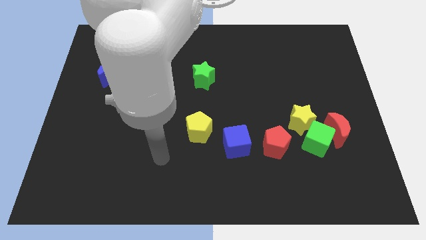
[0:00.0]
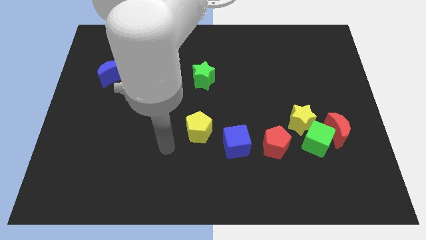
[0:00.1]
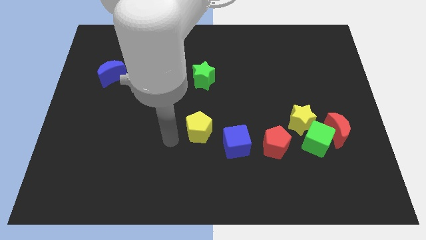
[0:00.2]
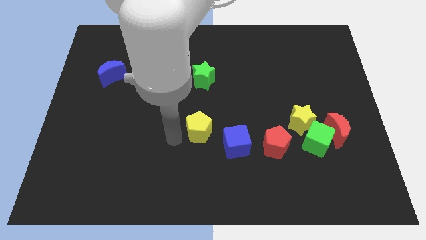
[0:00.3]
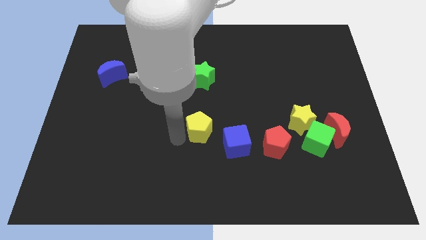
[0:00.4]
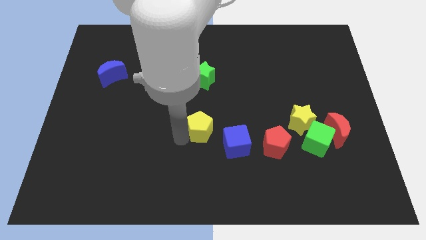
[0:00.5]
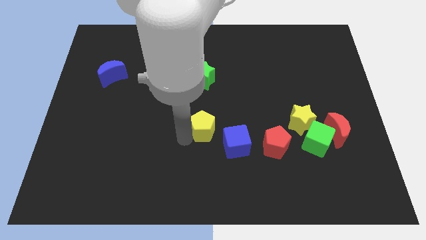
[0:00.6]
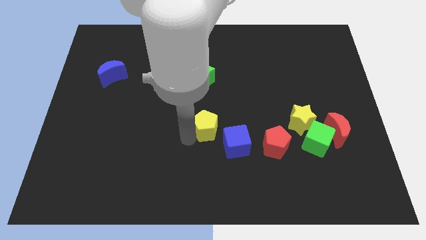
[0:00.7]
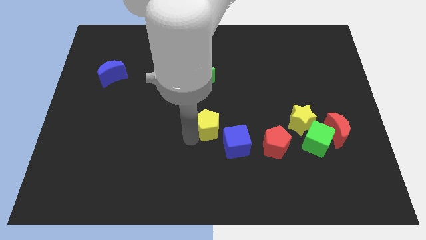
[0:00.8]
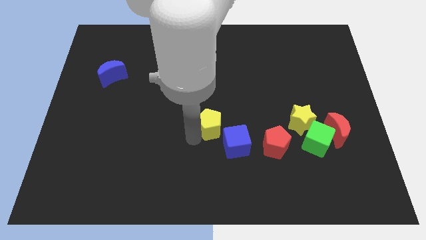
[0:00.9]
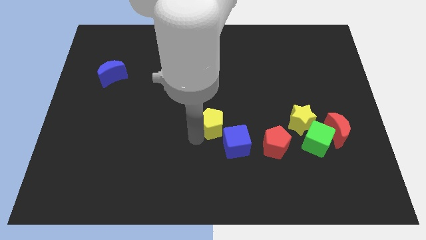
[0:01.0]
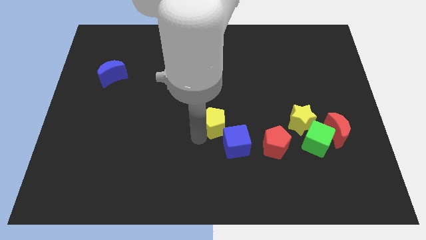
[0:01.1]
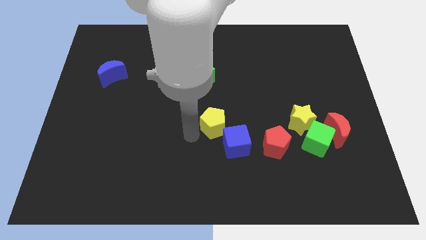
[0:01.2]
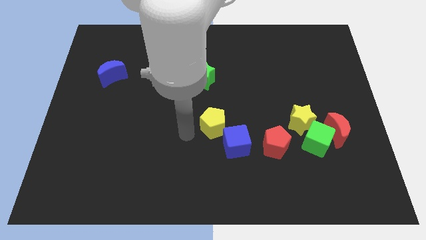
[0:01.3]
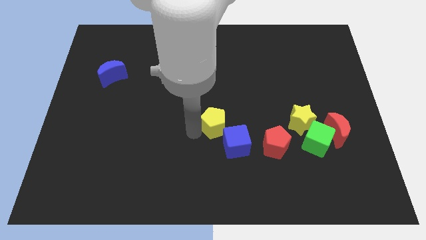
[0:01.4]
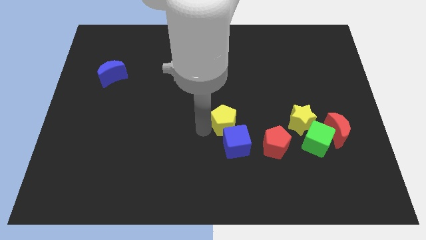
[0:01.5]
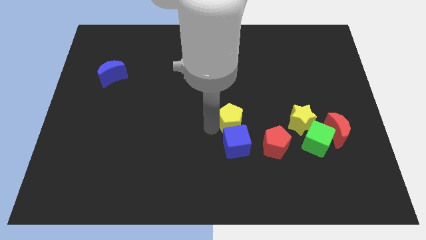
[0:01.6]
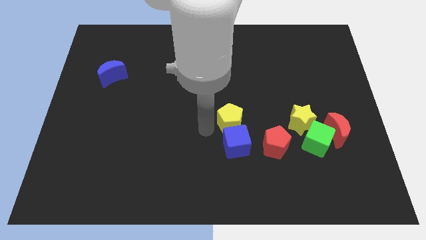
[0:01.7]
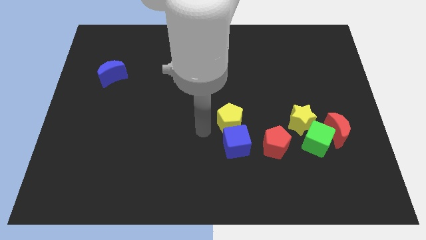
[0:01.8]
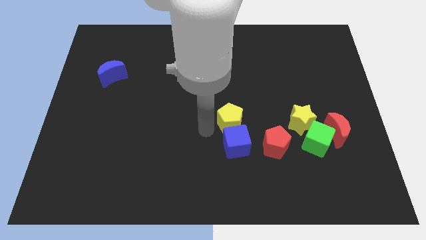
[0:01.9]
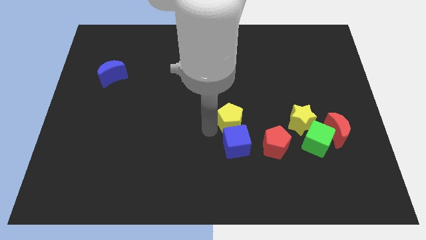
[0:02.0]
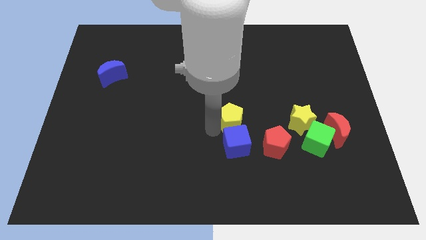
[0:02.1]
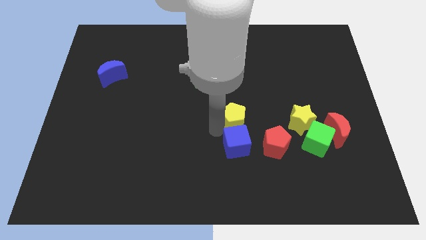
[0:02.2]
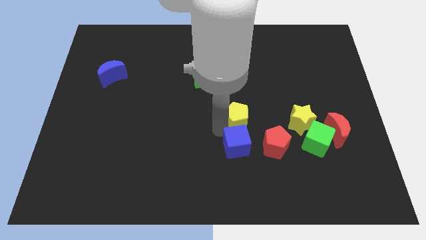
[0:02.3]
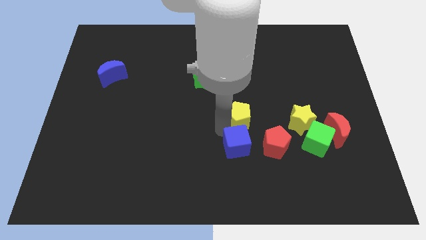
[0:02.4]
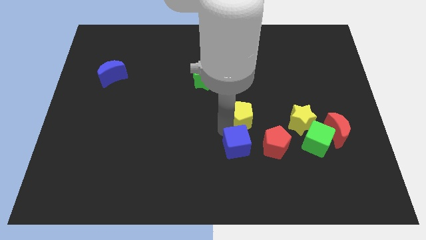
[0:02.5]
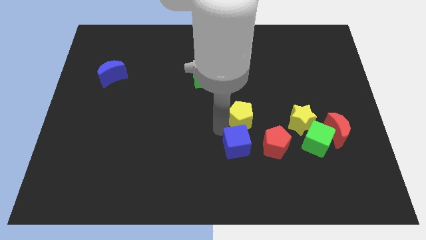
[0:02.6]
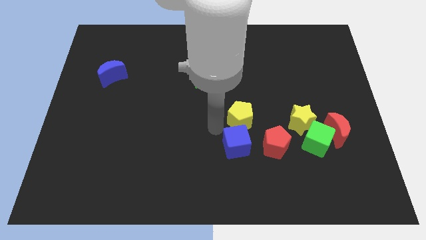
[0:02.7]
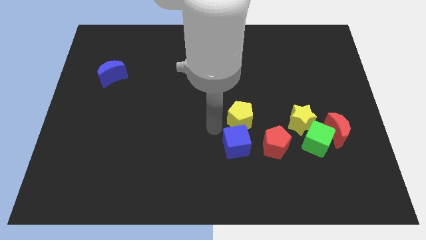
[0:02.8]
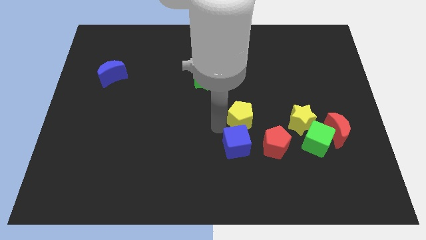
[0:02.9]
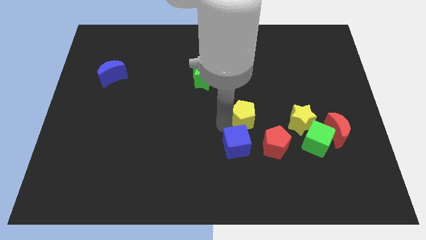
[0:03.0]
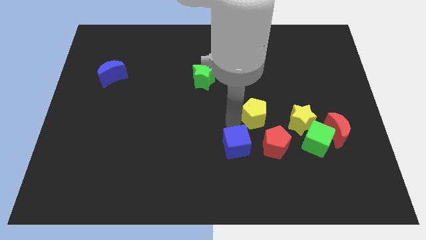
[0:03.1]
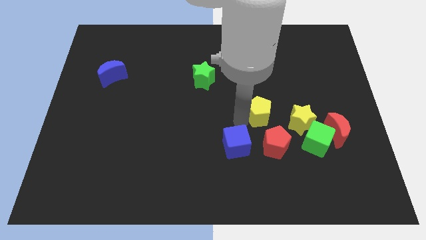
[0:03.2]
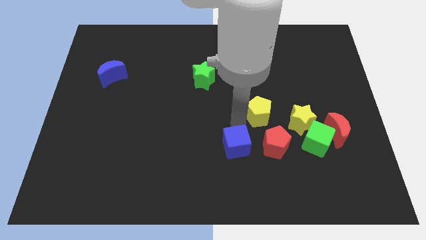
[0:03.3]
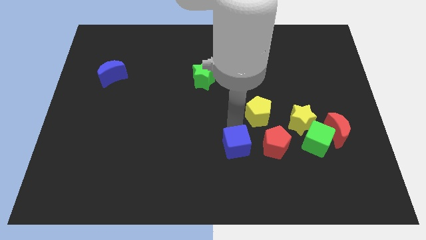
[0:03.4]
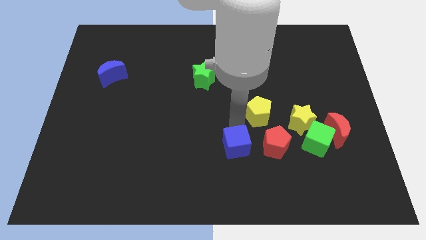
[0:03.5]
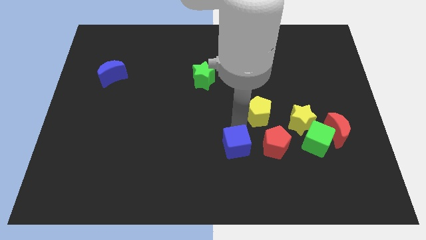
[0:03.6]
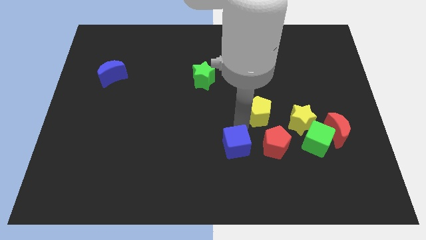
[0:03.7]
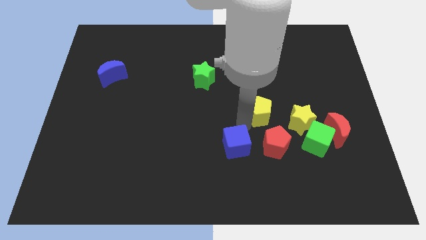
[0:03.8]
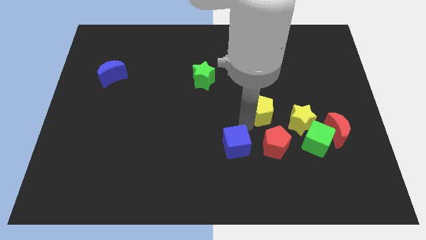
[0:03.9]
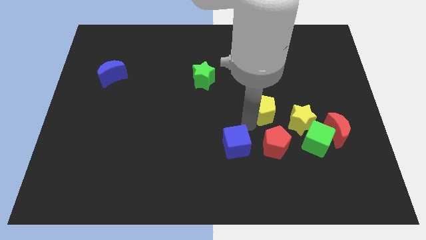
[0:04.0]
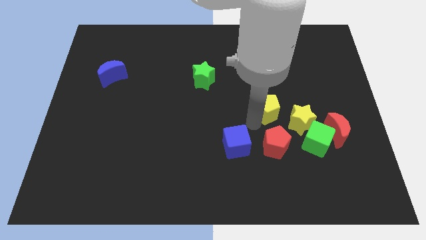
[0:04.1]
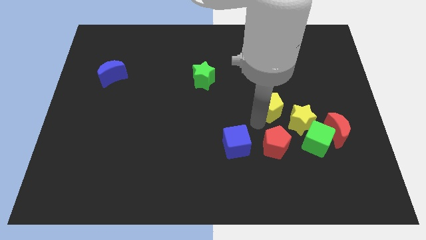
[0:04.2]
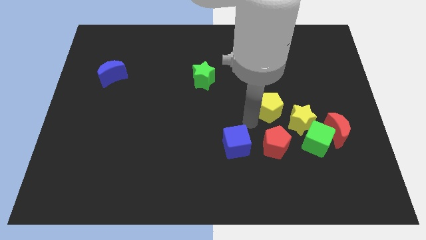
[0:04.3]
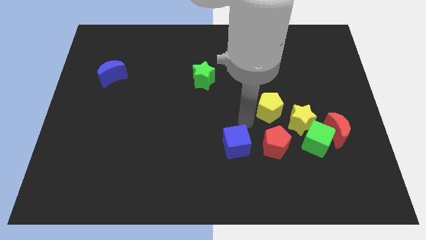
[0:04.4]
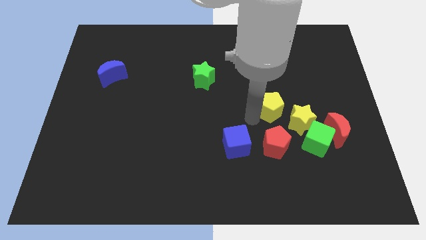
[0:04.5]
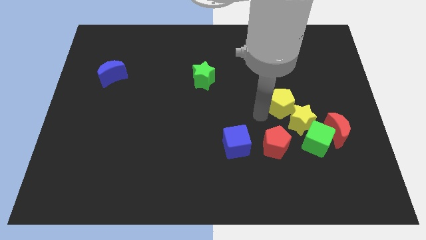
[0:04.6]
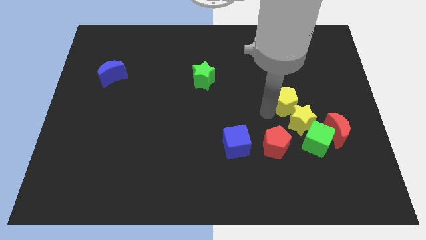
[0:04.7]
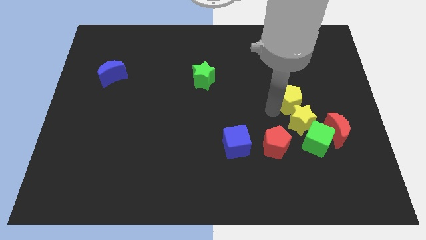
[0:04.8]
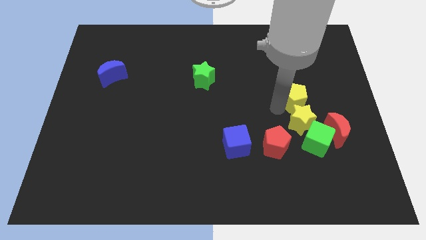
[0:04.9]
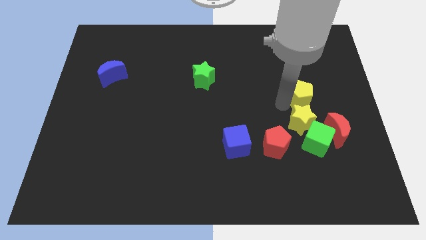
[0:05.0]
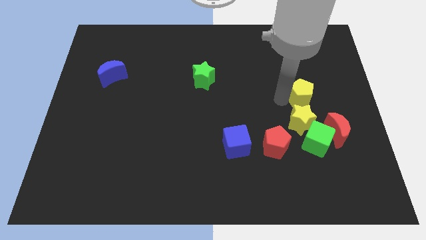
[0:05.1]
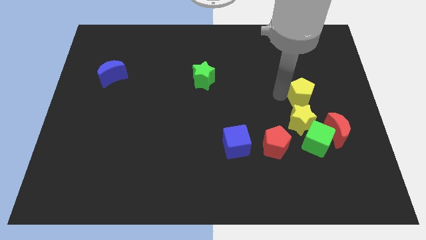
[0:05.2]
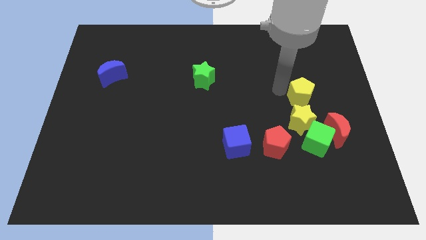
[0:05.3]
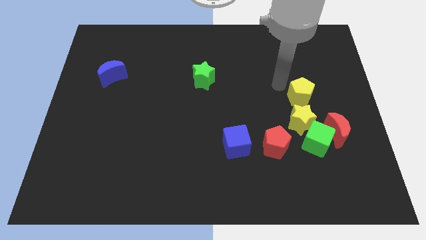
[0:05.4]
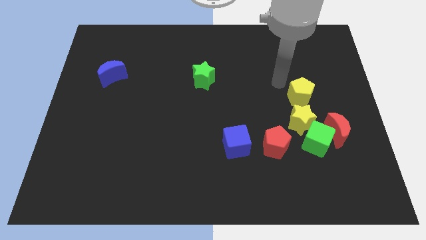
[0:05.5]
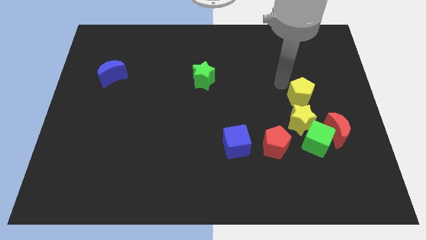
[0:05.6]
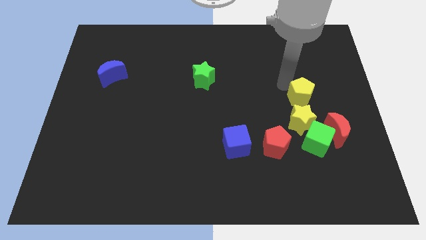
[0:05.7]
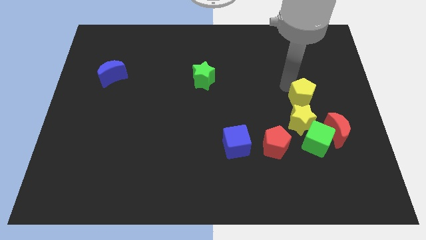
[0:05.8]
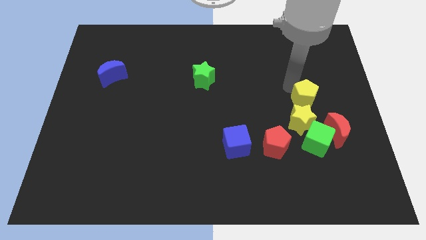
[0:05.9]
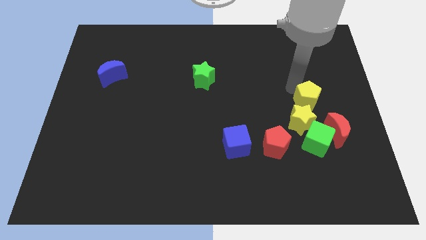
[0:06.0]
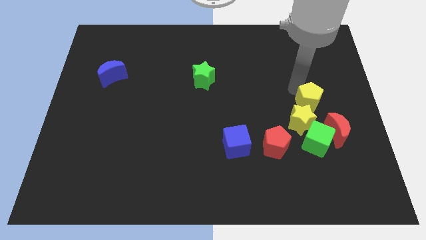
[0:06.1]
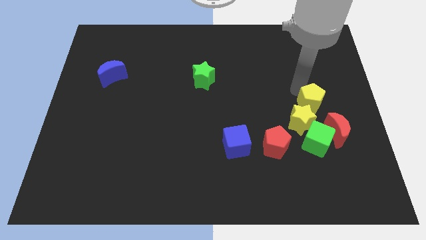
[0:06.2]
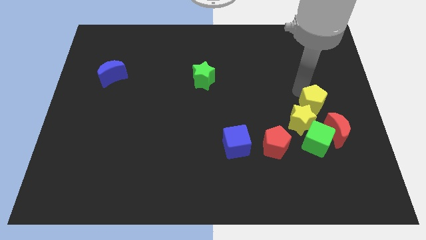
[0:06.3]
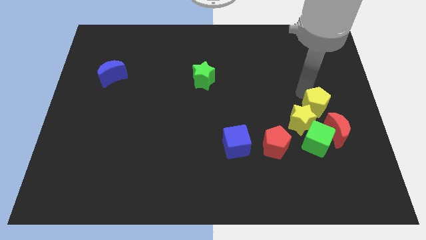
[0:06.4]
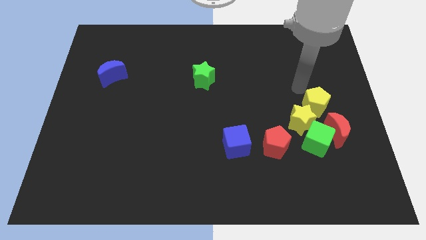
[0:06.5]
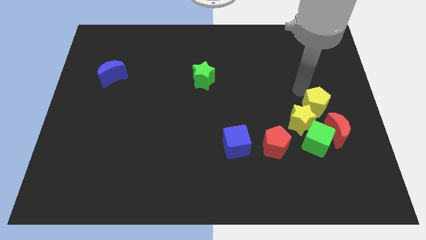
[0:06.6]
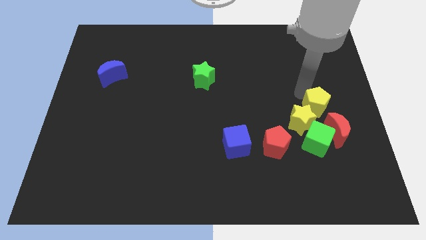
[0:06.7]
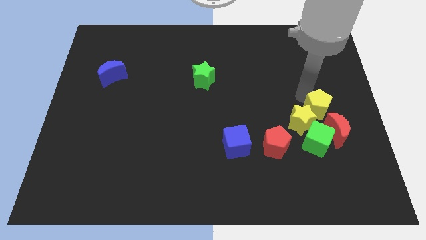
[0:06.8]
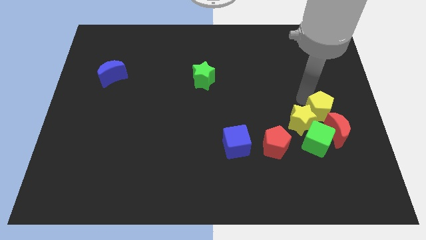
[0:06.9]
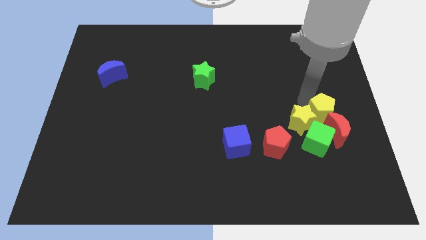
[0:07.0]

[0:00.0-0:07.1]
slide the yellow pentagon close to the red moon

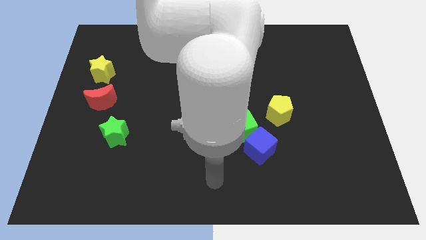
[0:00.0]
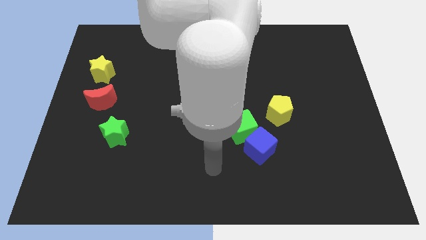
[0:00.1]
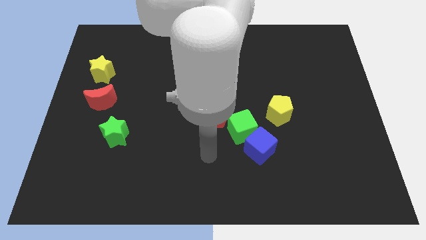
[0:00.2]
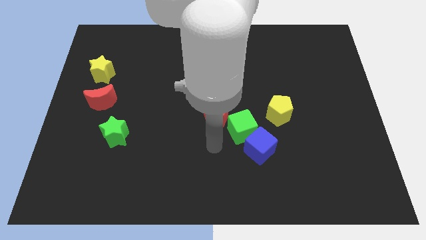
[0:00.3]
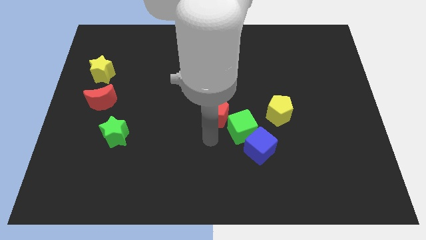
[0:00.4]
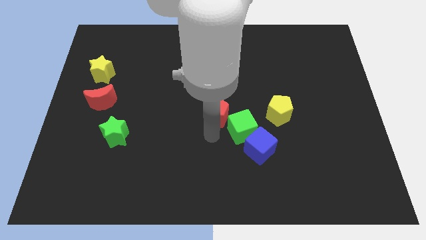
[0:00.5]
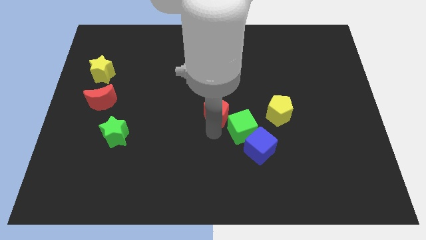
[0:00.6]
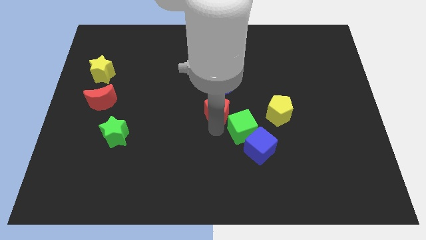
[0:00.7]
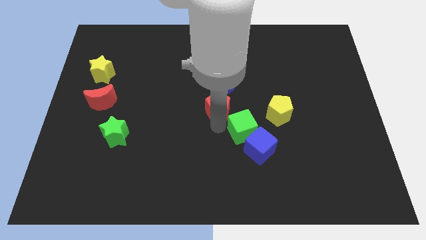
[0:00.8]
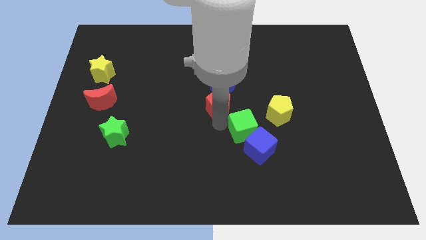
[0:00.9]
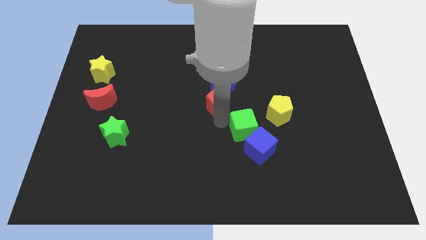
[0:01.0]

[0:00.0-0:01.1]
push the red pentagon towards the blue moon
